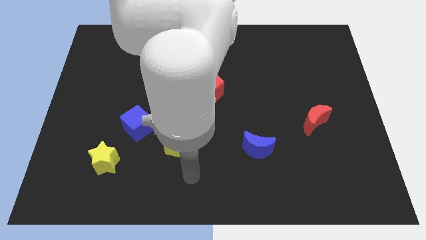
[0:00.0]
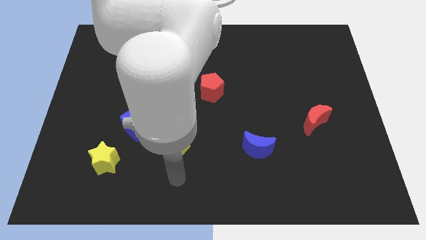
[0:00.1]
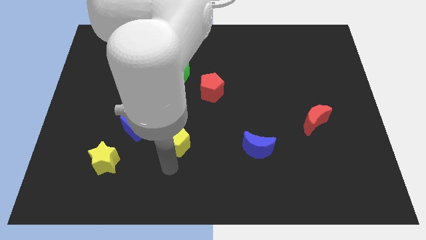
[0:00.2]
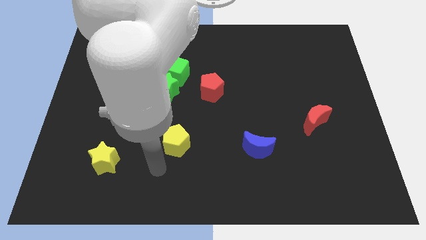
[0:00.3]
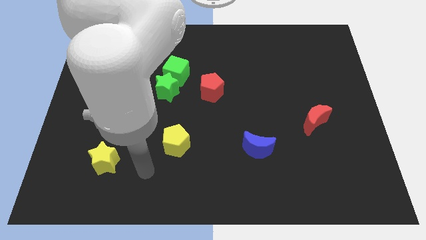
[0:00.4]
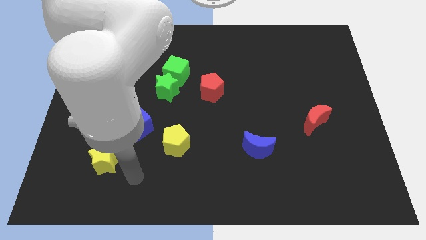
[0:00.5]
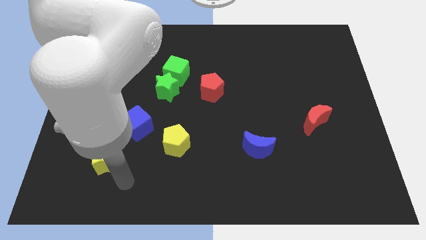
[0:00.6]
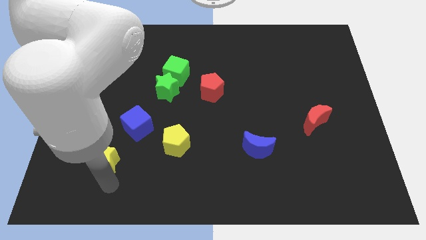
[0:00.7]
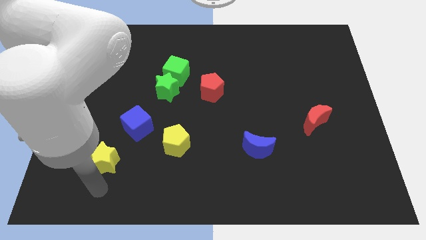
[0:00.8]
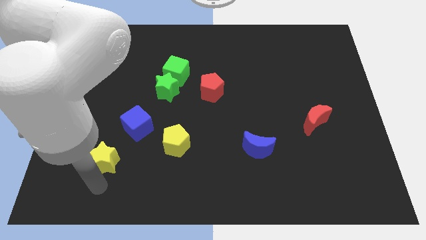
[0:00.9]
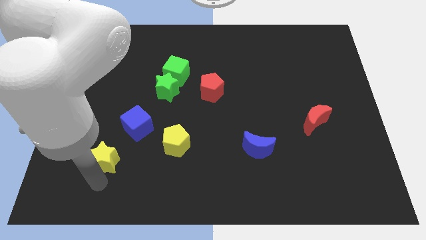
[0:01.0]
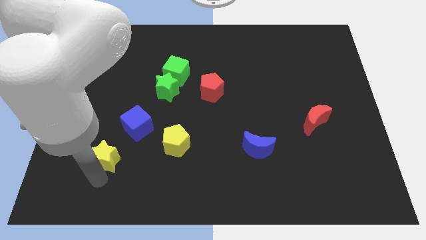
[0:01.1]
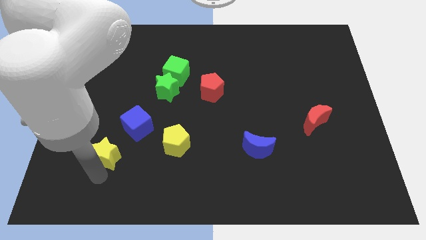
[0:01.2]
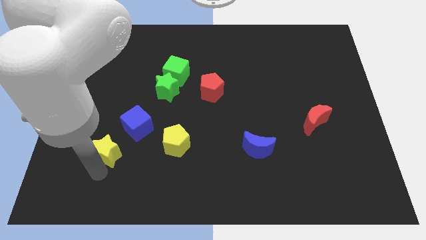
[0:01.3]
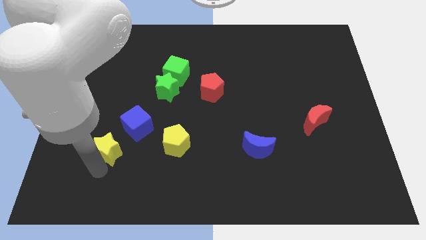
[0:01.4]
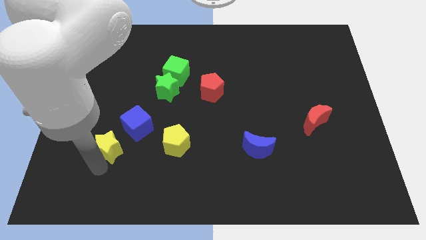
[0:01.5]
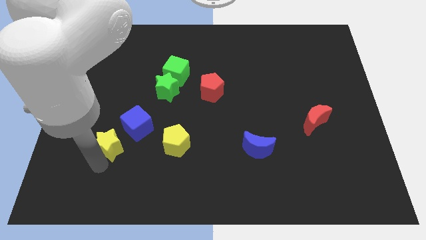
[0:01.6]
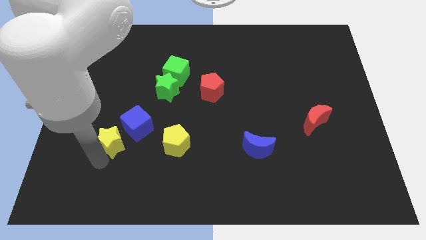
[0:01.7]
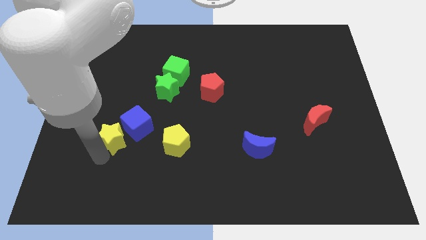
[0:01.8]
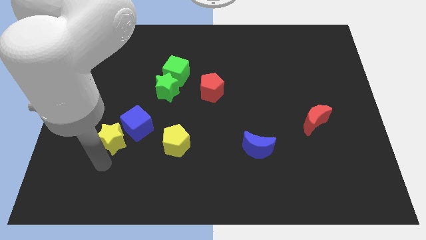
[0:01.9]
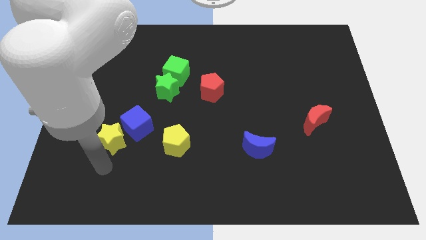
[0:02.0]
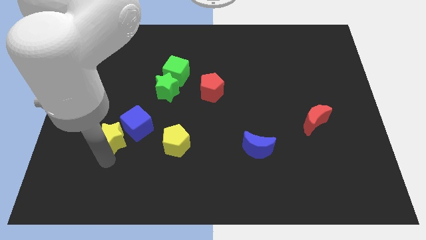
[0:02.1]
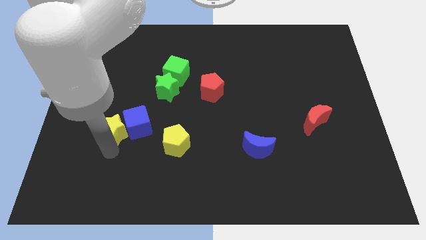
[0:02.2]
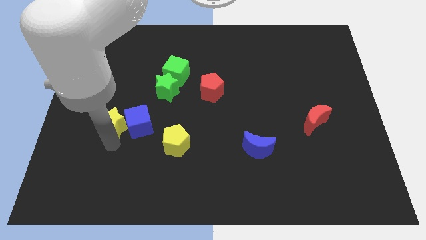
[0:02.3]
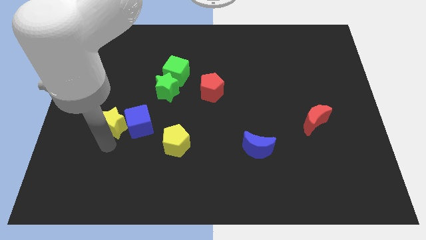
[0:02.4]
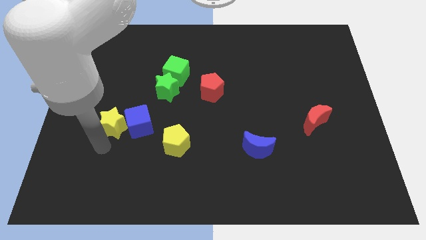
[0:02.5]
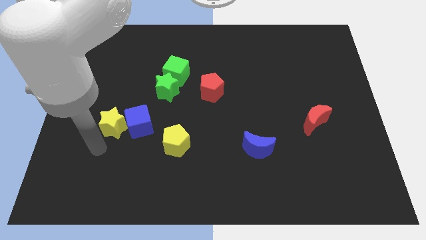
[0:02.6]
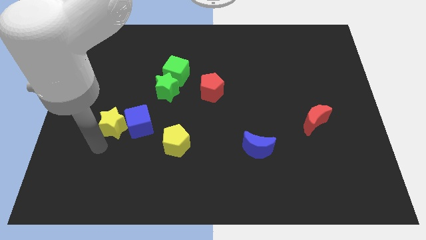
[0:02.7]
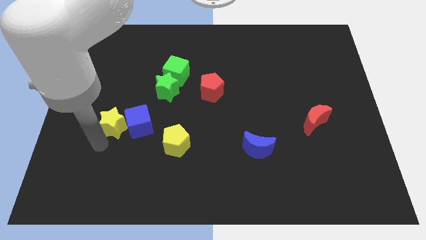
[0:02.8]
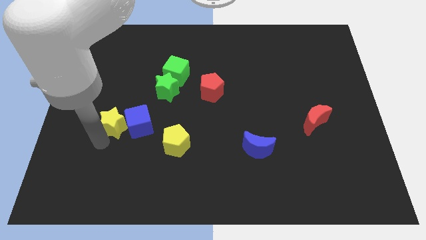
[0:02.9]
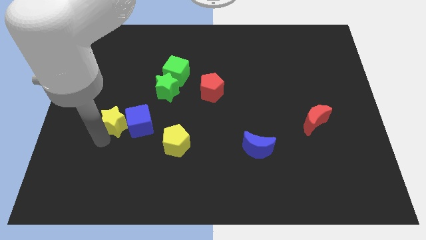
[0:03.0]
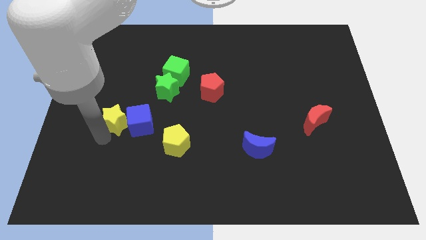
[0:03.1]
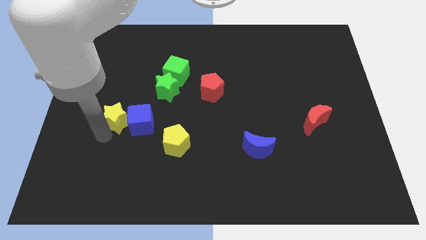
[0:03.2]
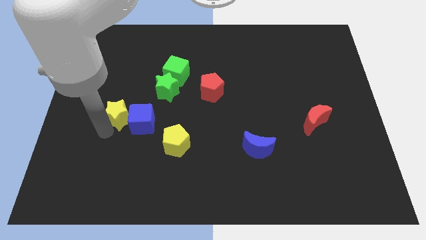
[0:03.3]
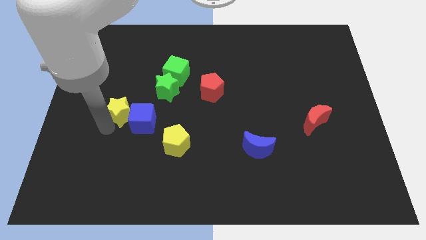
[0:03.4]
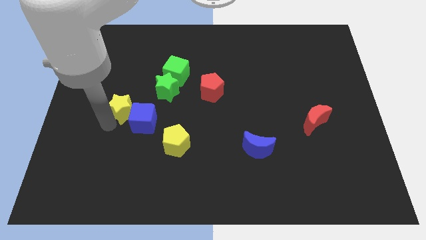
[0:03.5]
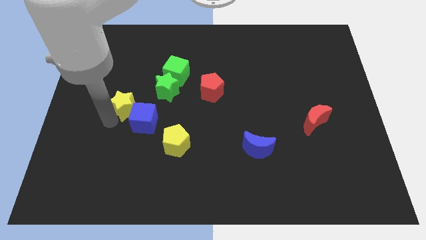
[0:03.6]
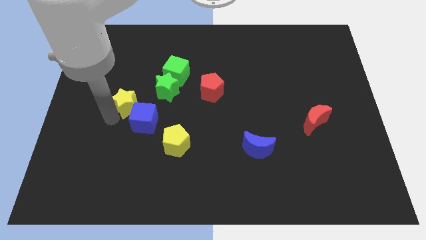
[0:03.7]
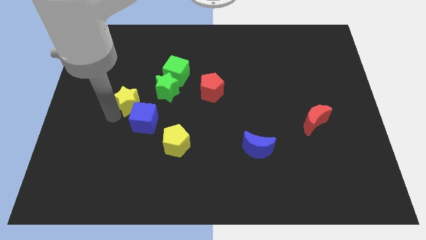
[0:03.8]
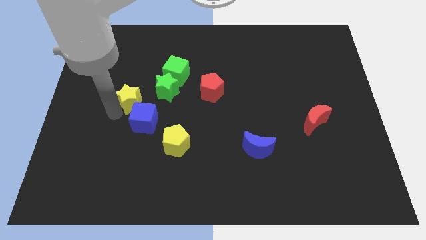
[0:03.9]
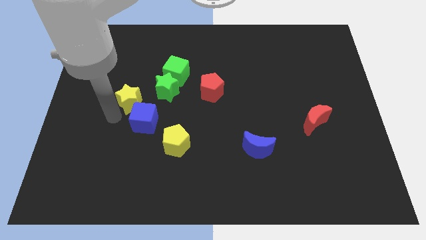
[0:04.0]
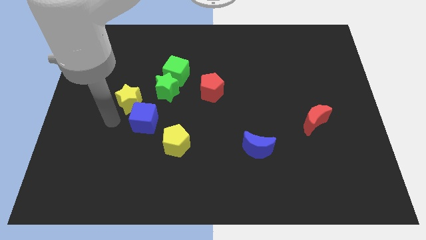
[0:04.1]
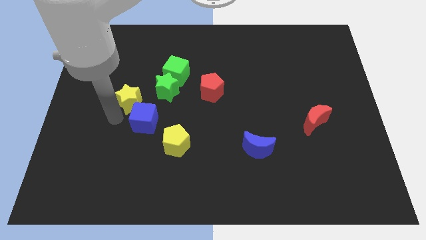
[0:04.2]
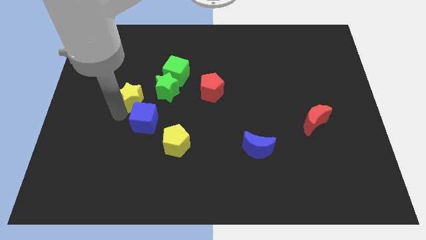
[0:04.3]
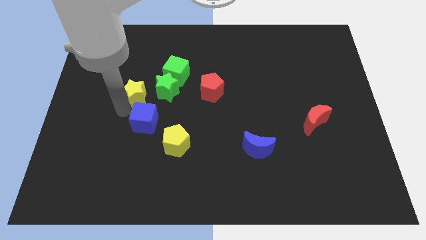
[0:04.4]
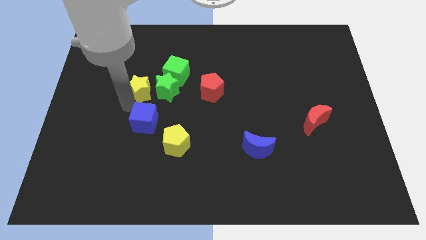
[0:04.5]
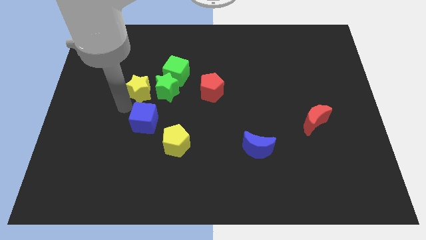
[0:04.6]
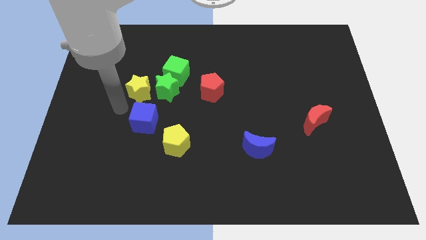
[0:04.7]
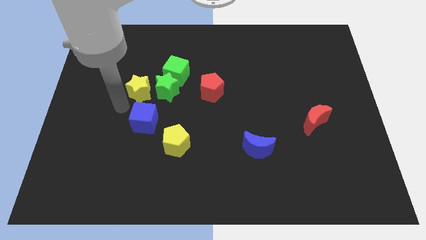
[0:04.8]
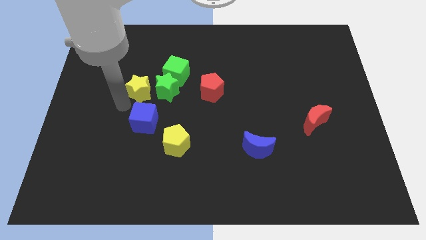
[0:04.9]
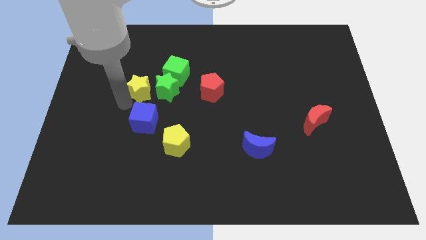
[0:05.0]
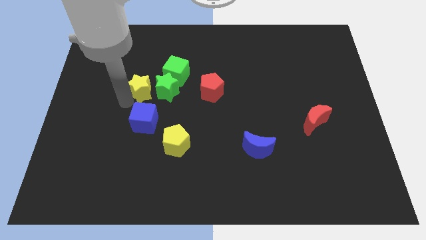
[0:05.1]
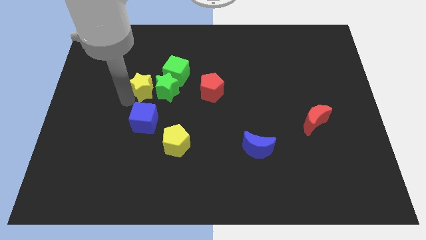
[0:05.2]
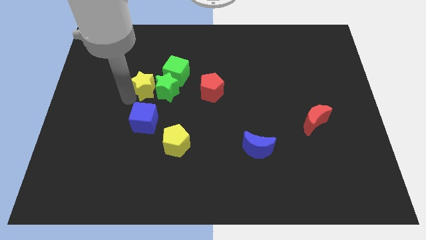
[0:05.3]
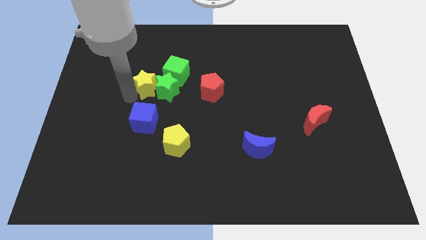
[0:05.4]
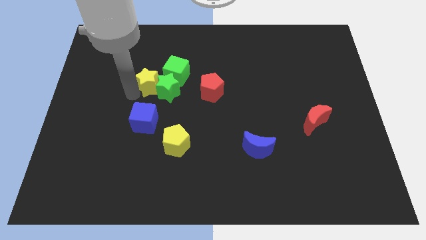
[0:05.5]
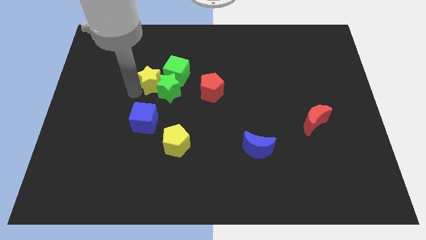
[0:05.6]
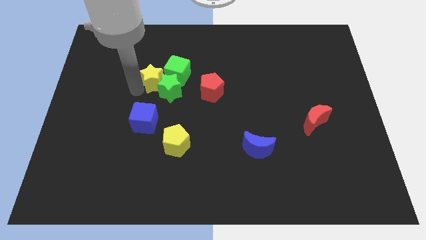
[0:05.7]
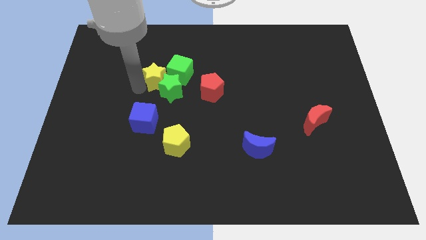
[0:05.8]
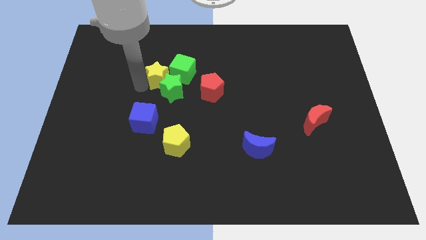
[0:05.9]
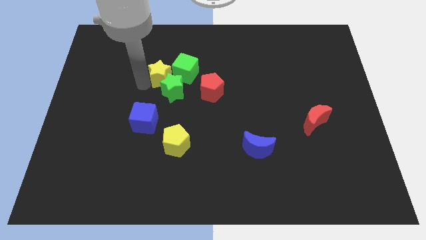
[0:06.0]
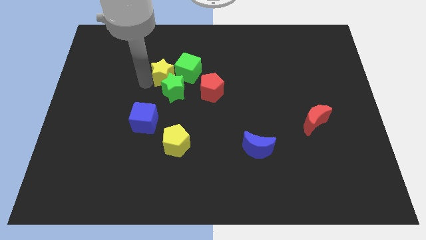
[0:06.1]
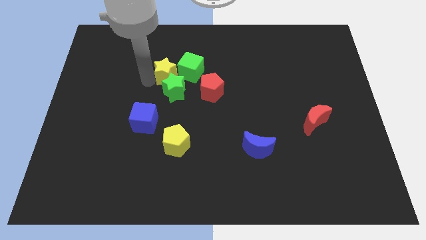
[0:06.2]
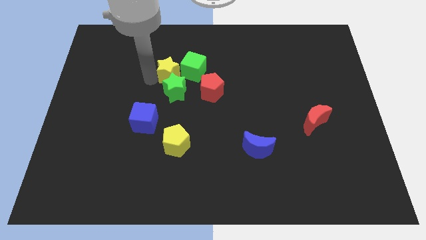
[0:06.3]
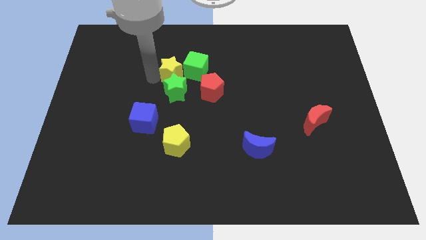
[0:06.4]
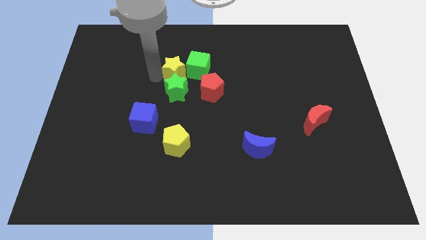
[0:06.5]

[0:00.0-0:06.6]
push the yellow star to the green cube

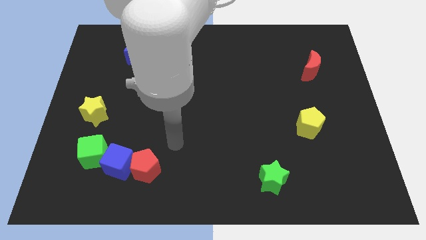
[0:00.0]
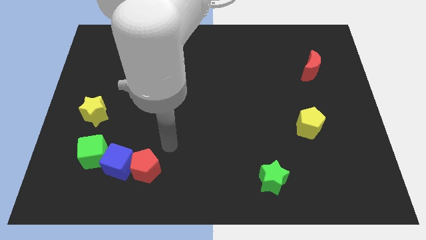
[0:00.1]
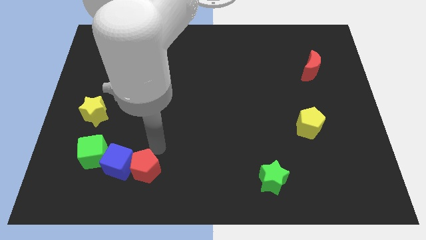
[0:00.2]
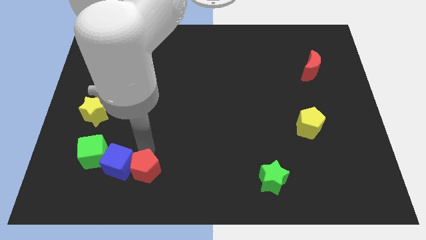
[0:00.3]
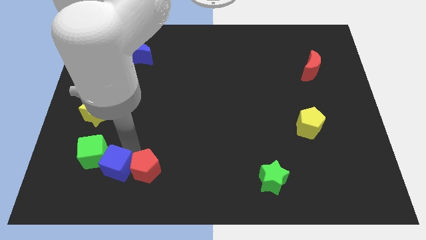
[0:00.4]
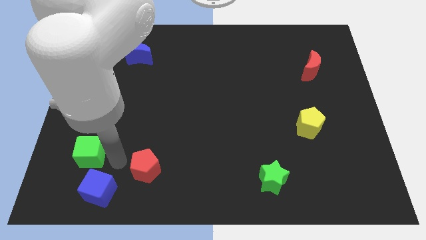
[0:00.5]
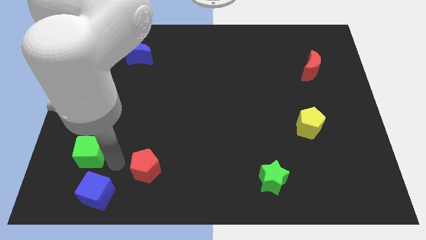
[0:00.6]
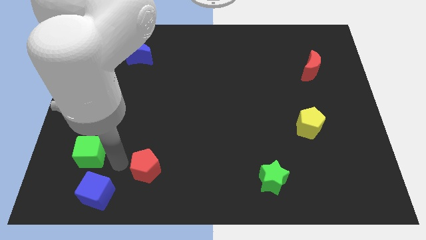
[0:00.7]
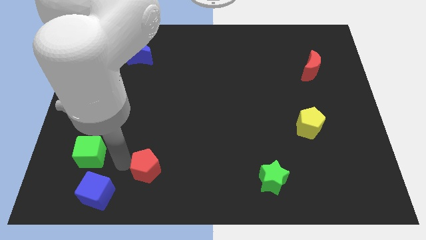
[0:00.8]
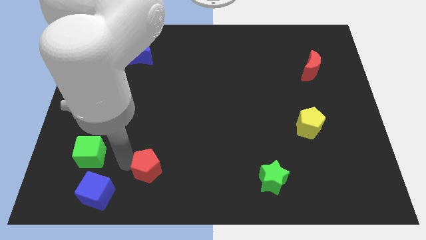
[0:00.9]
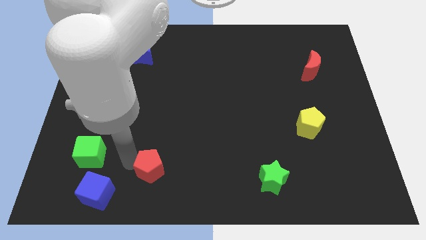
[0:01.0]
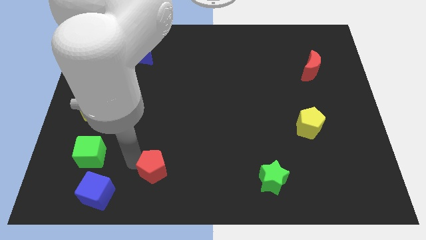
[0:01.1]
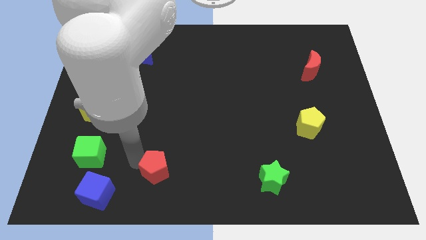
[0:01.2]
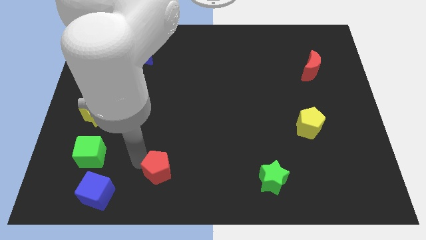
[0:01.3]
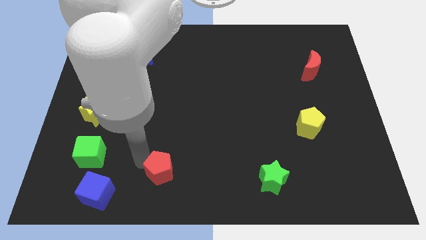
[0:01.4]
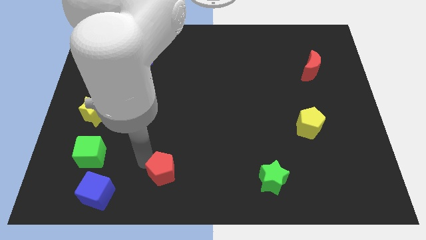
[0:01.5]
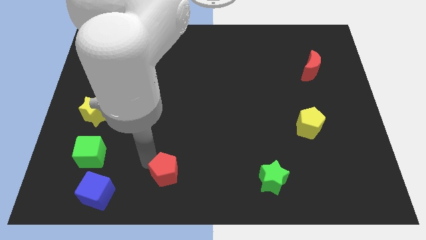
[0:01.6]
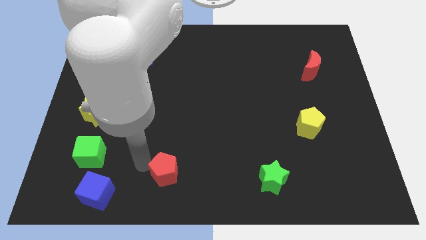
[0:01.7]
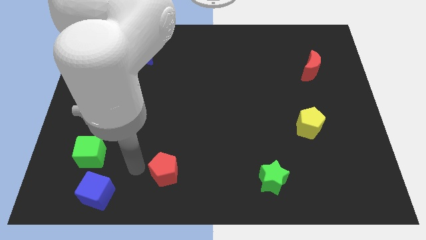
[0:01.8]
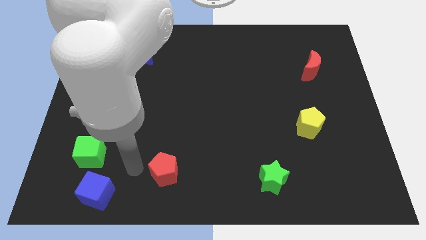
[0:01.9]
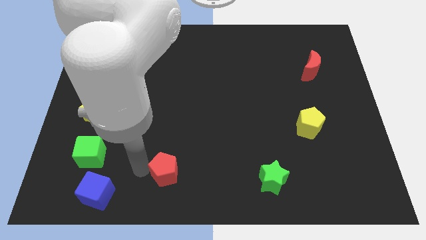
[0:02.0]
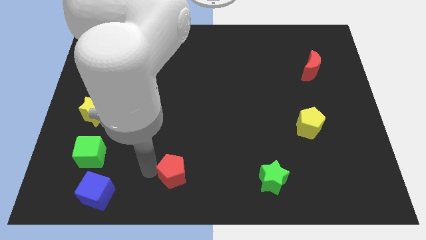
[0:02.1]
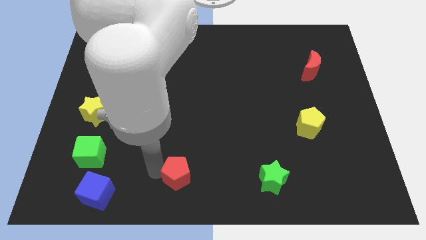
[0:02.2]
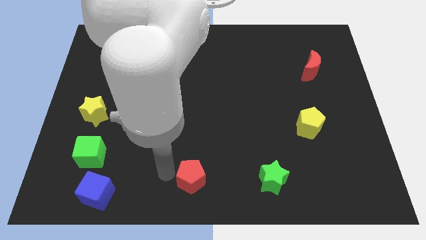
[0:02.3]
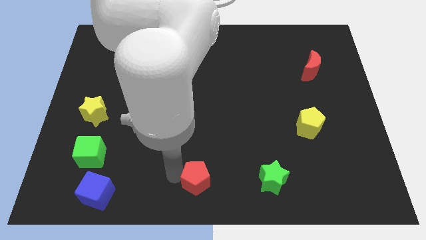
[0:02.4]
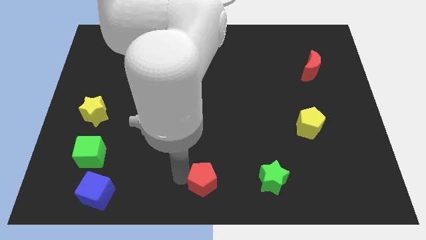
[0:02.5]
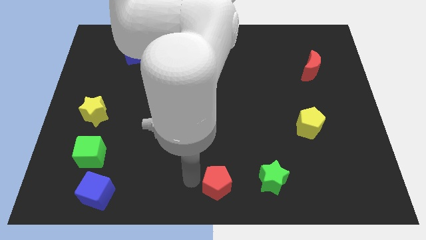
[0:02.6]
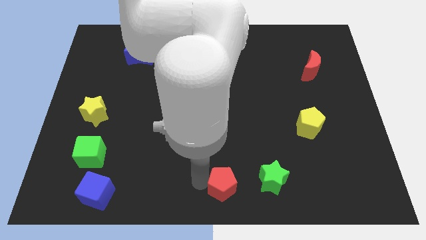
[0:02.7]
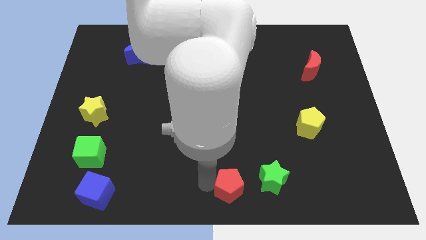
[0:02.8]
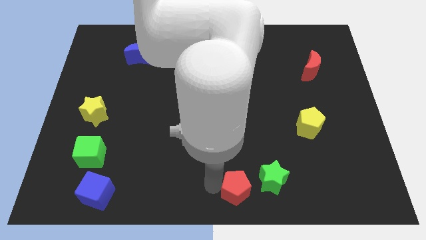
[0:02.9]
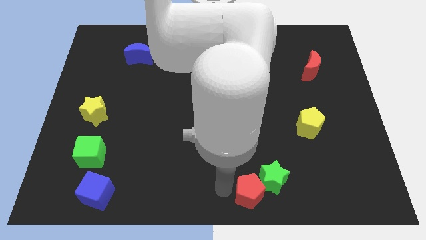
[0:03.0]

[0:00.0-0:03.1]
slide the red pentagon towards the green star
